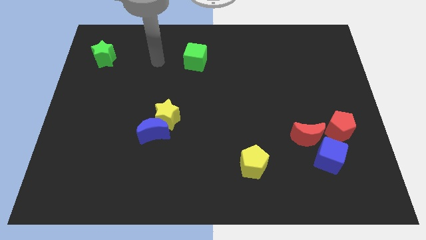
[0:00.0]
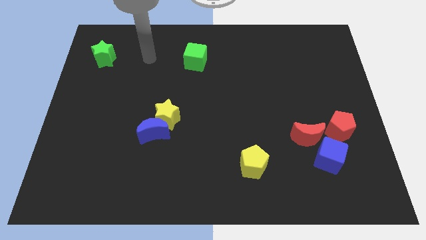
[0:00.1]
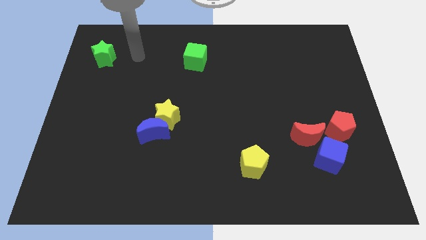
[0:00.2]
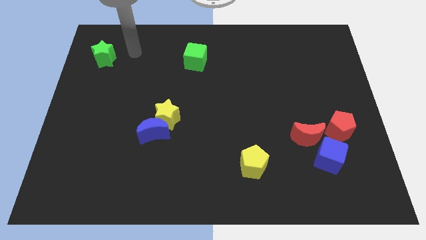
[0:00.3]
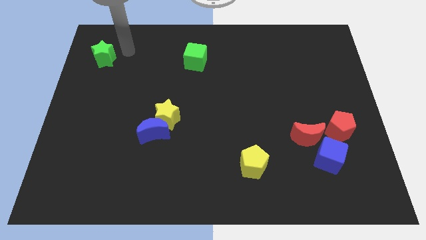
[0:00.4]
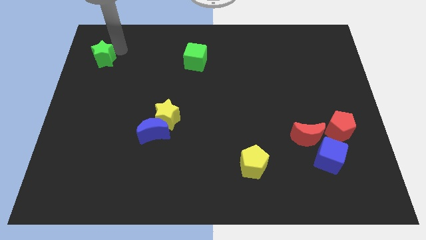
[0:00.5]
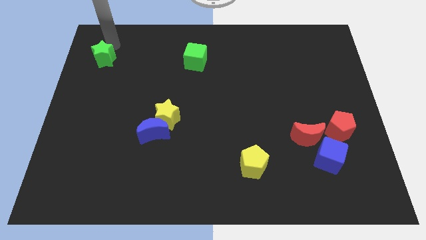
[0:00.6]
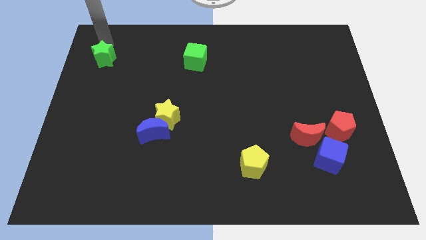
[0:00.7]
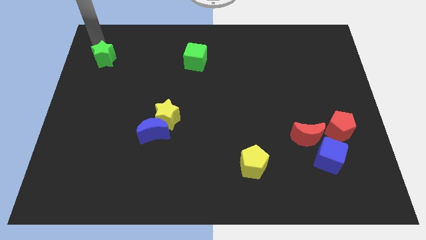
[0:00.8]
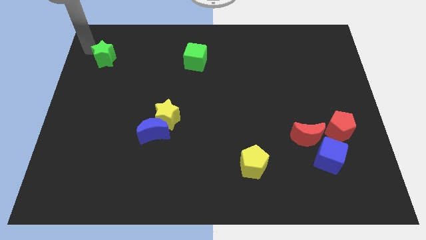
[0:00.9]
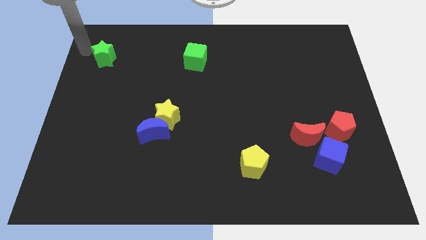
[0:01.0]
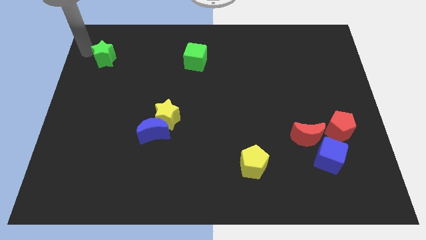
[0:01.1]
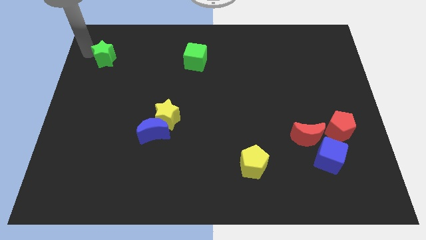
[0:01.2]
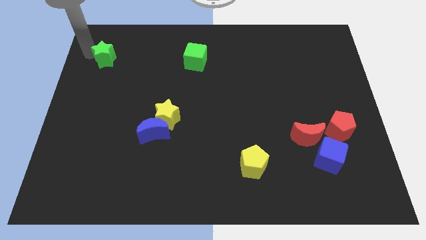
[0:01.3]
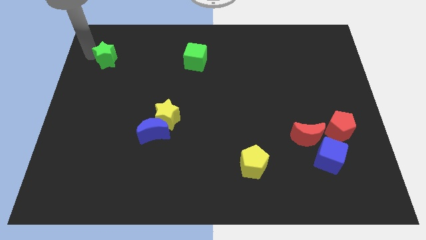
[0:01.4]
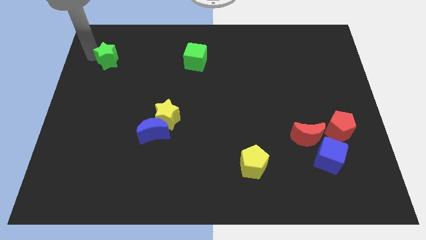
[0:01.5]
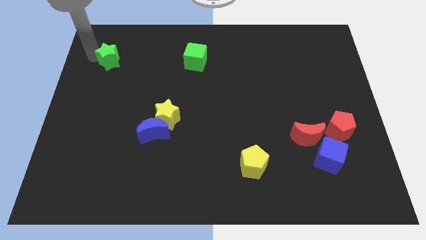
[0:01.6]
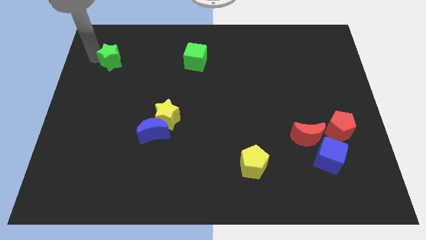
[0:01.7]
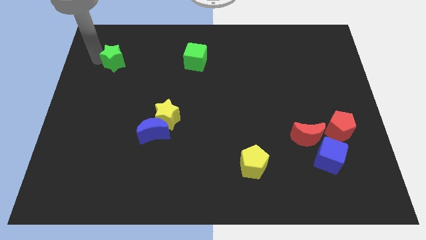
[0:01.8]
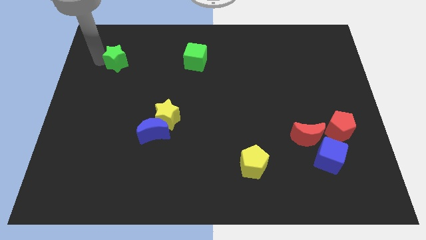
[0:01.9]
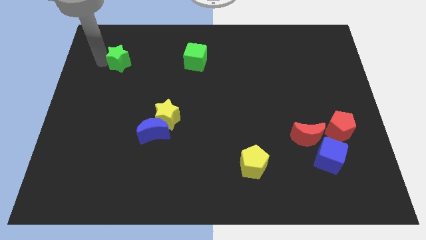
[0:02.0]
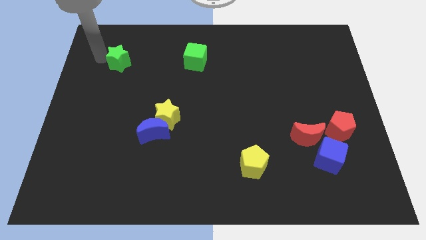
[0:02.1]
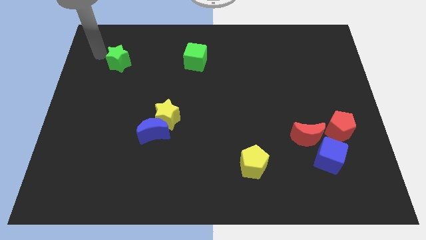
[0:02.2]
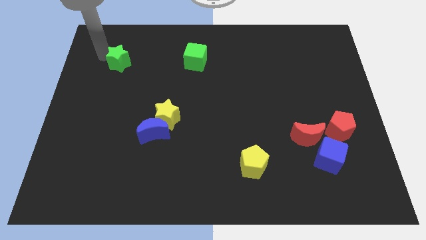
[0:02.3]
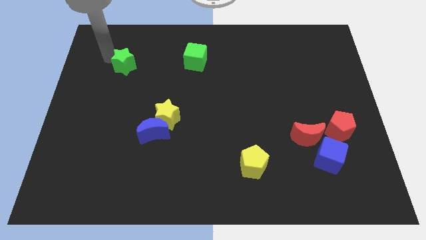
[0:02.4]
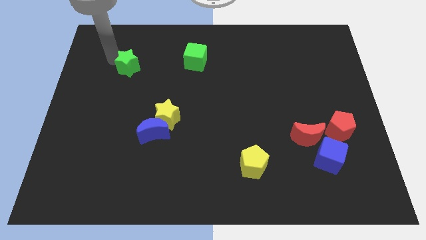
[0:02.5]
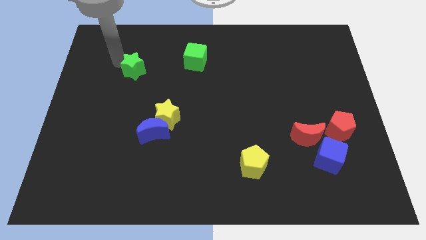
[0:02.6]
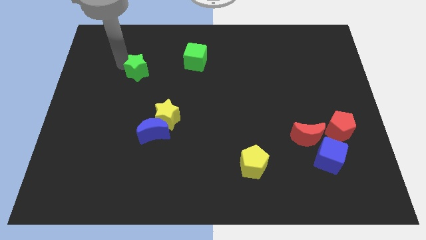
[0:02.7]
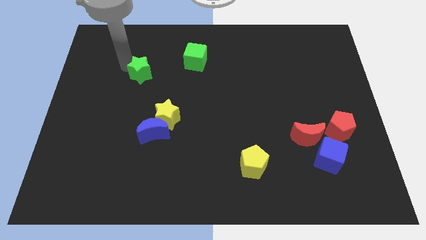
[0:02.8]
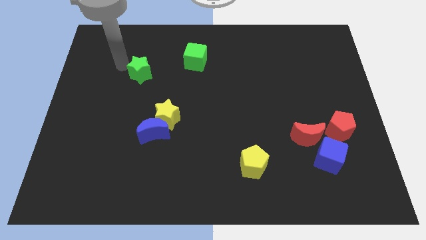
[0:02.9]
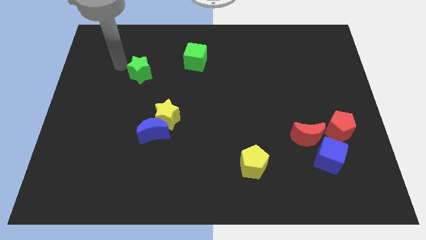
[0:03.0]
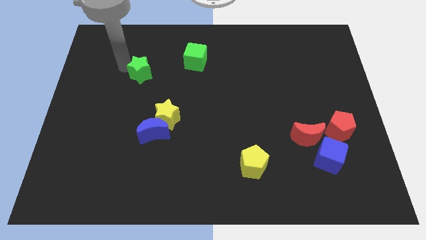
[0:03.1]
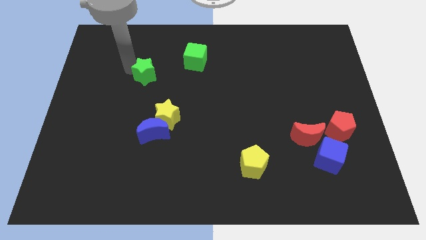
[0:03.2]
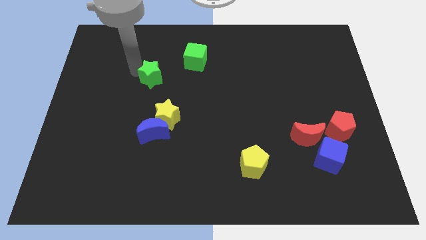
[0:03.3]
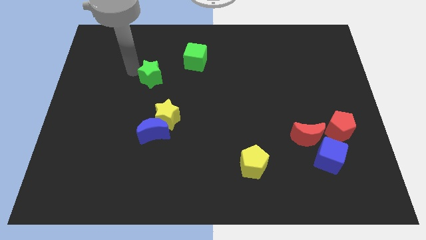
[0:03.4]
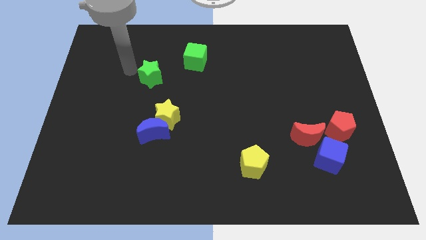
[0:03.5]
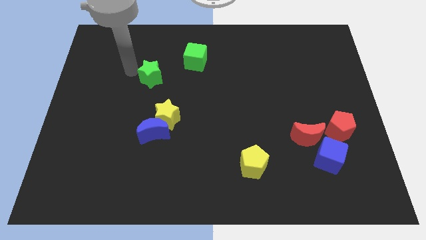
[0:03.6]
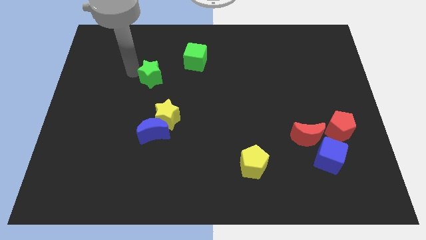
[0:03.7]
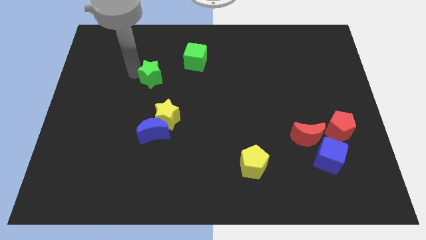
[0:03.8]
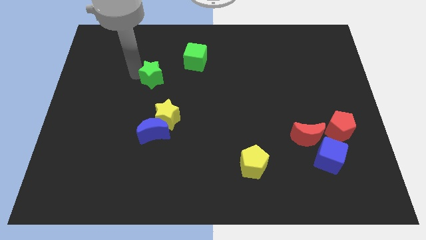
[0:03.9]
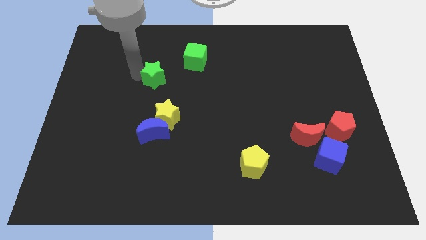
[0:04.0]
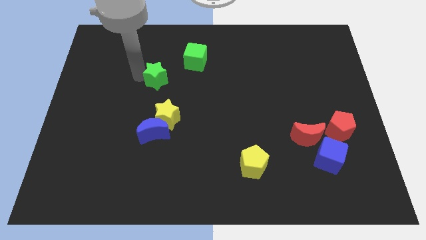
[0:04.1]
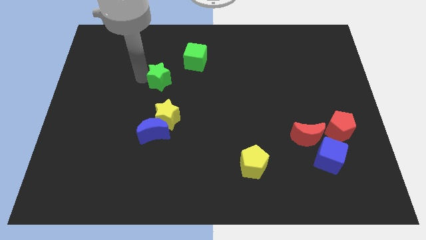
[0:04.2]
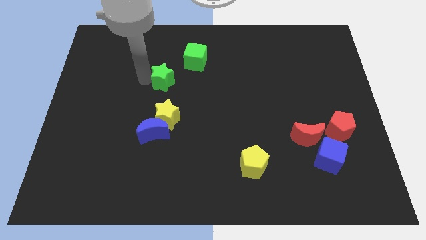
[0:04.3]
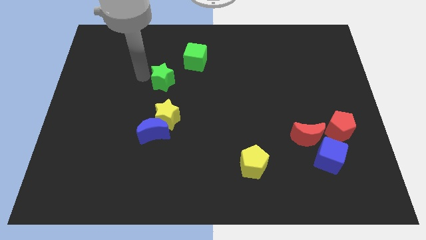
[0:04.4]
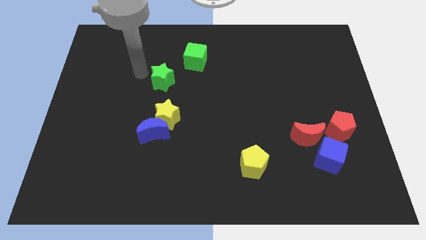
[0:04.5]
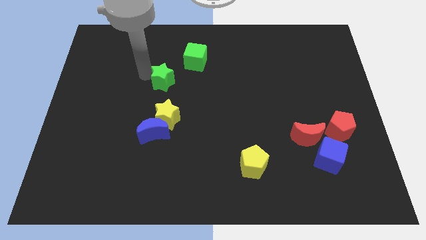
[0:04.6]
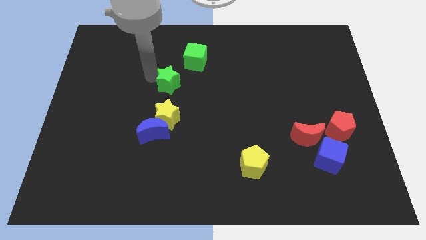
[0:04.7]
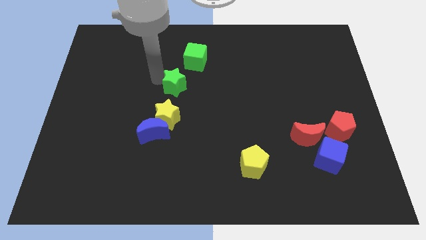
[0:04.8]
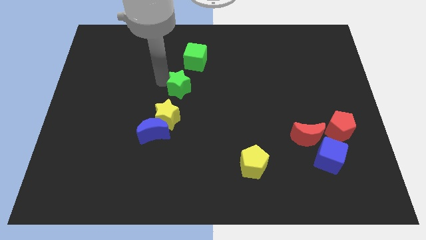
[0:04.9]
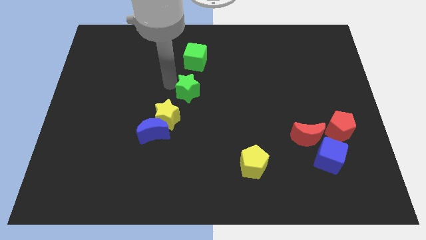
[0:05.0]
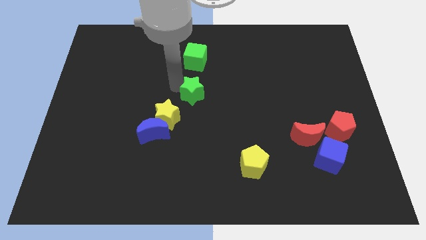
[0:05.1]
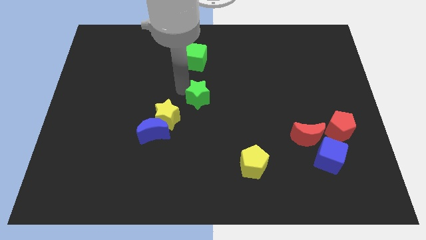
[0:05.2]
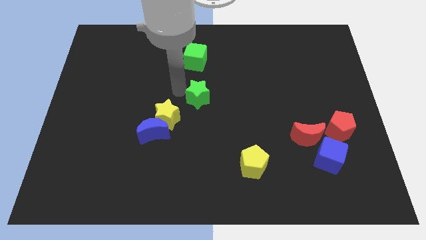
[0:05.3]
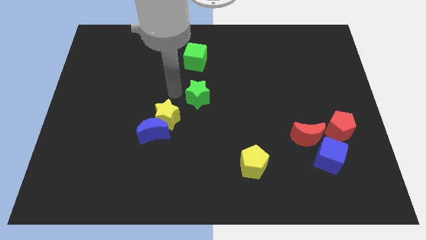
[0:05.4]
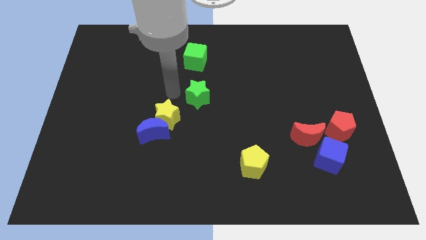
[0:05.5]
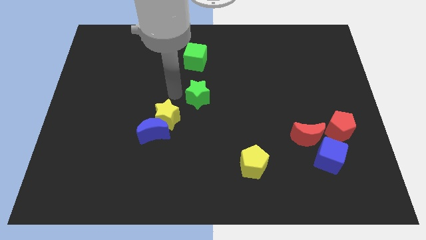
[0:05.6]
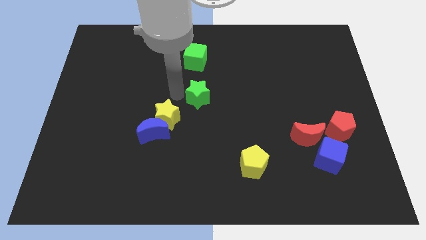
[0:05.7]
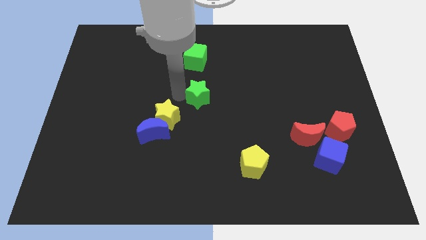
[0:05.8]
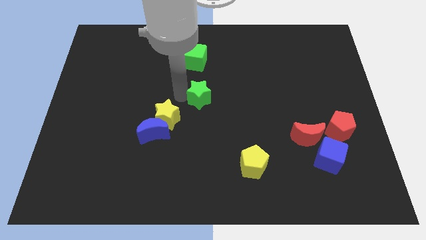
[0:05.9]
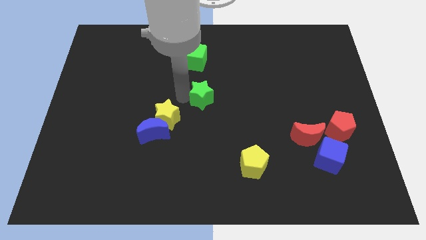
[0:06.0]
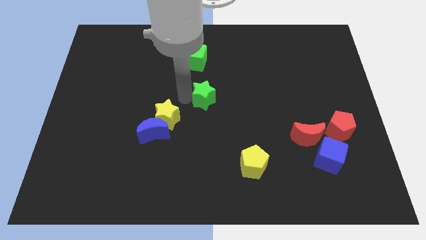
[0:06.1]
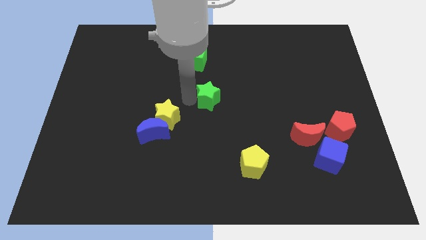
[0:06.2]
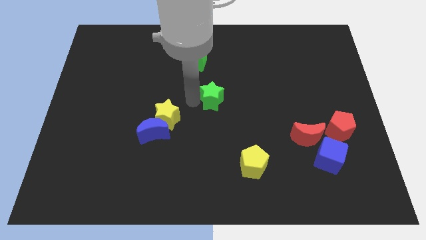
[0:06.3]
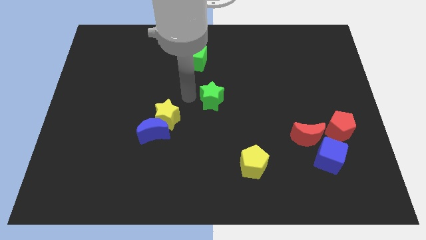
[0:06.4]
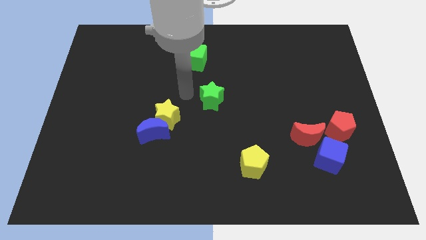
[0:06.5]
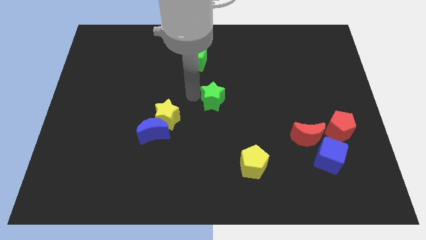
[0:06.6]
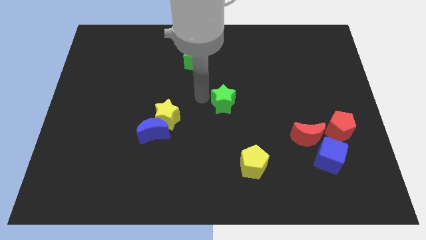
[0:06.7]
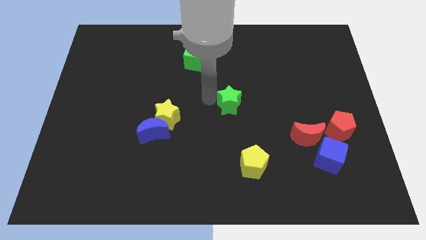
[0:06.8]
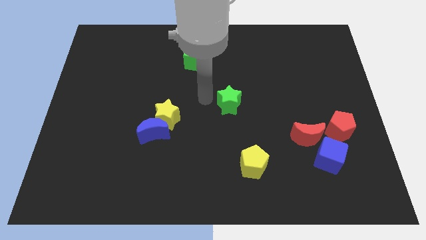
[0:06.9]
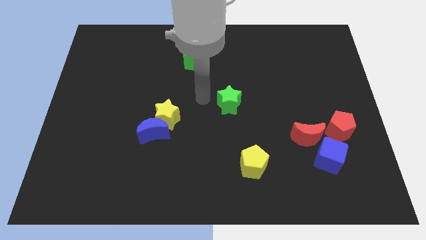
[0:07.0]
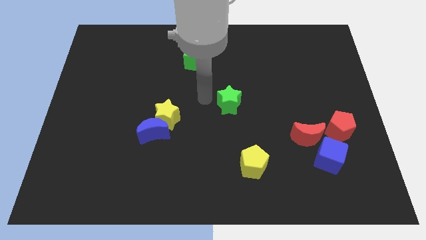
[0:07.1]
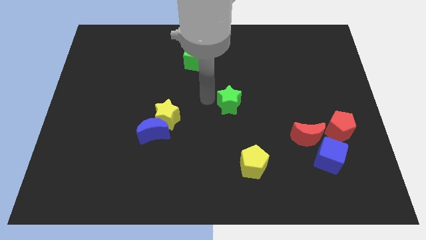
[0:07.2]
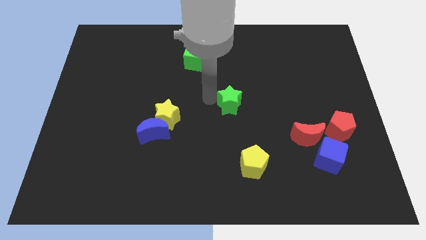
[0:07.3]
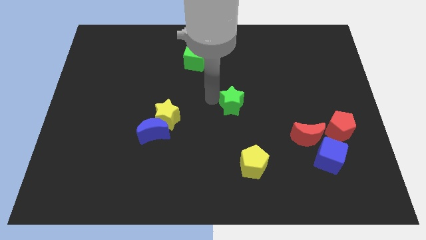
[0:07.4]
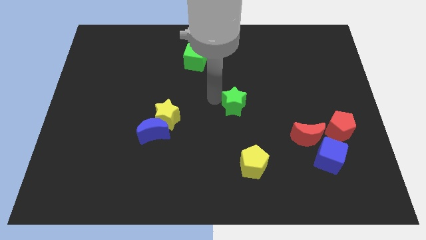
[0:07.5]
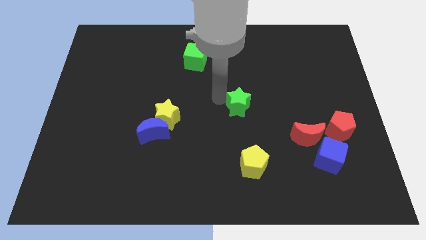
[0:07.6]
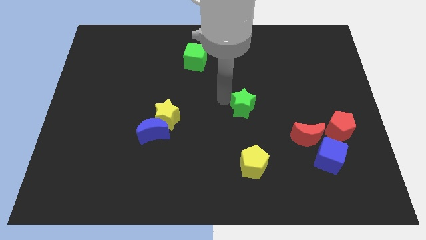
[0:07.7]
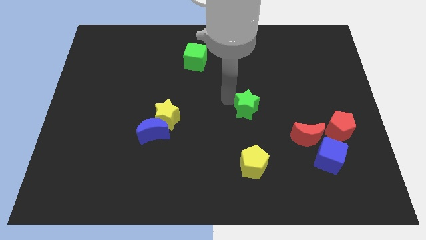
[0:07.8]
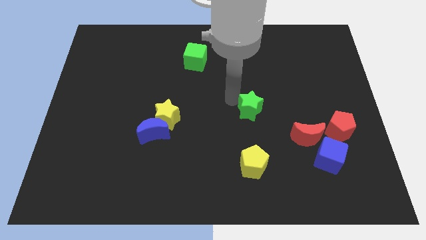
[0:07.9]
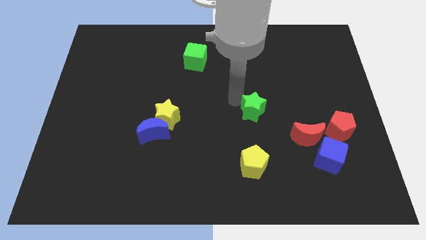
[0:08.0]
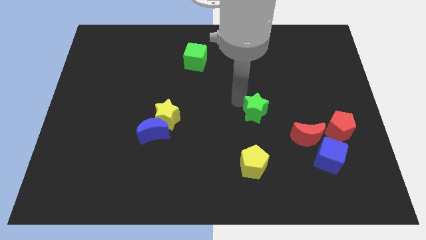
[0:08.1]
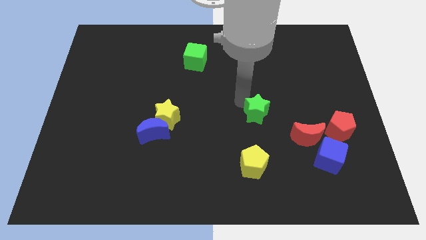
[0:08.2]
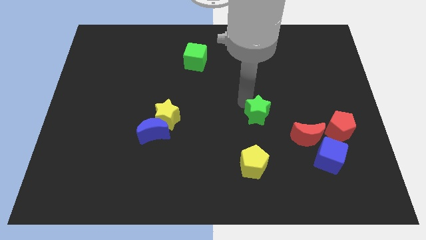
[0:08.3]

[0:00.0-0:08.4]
put the green star to the top left of the red moon
